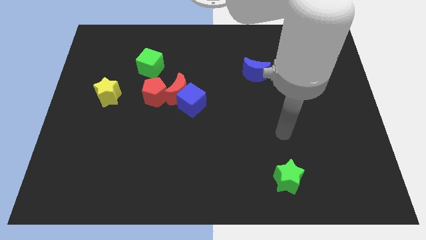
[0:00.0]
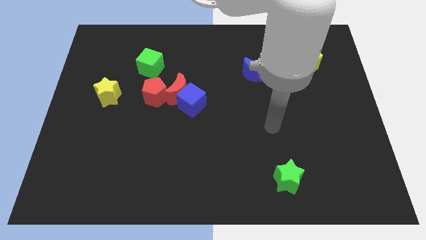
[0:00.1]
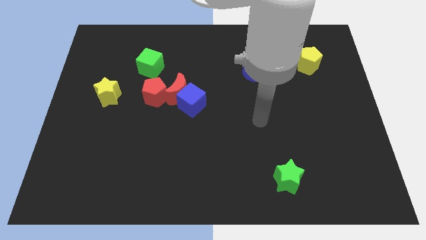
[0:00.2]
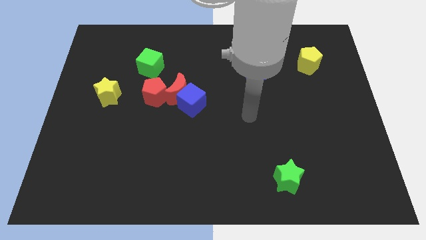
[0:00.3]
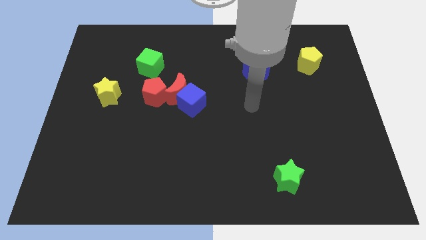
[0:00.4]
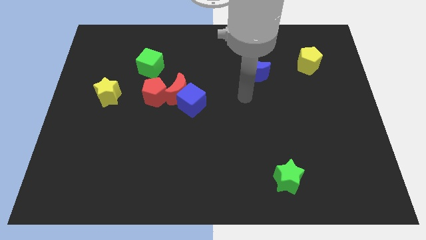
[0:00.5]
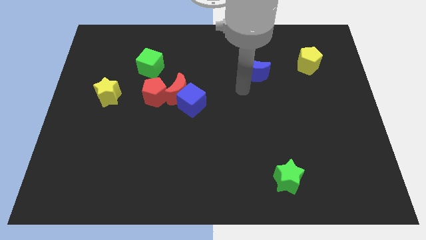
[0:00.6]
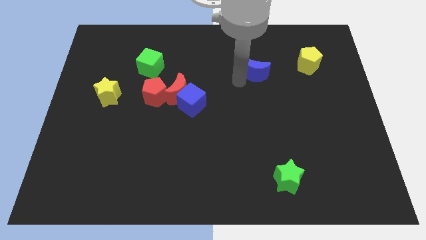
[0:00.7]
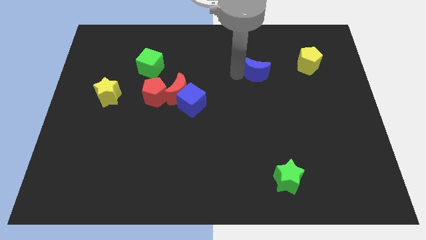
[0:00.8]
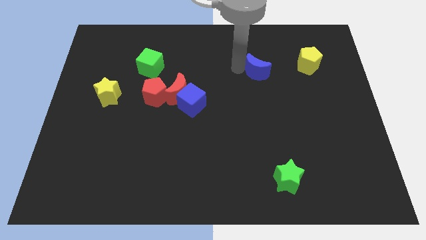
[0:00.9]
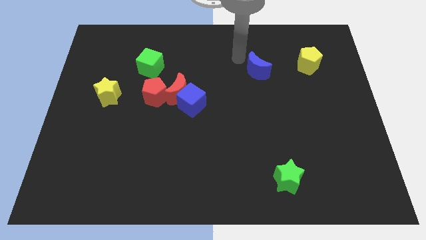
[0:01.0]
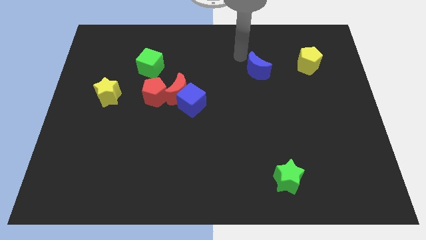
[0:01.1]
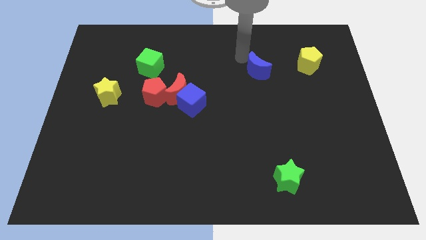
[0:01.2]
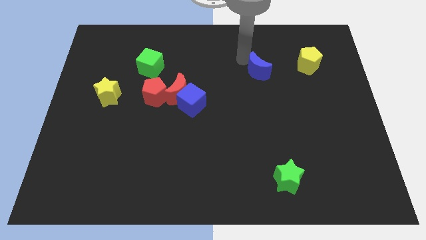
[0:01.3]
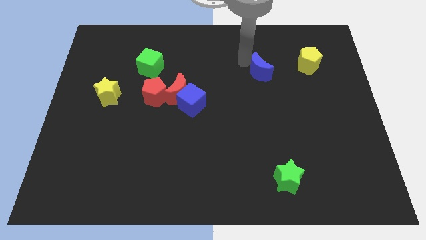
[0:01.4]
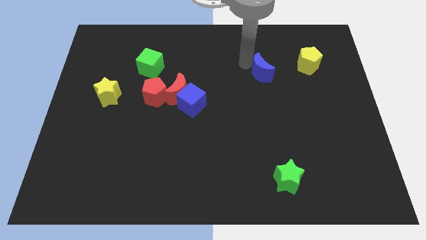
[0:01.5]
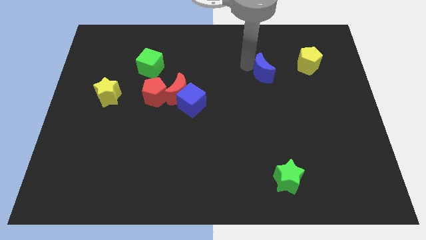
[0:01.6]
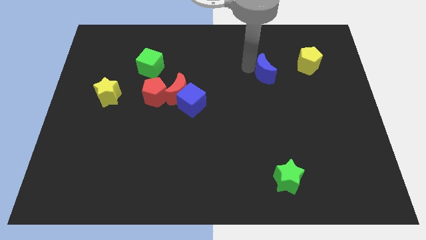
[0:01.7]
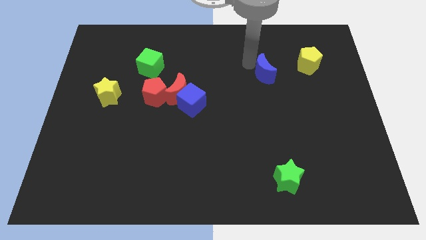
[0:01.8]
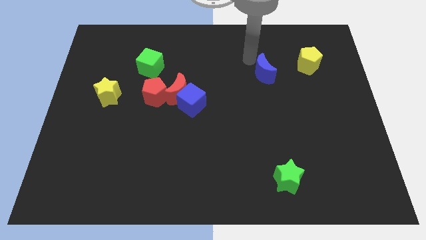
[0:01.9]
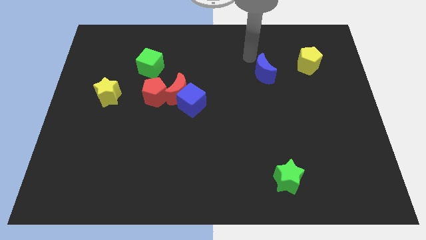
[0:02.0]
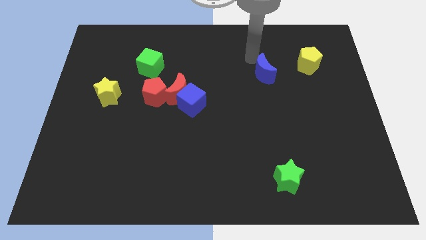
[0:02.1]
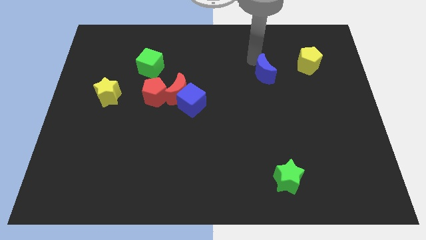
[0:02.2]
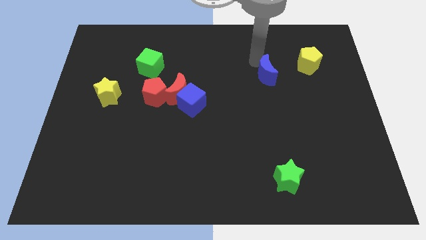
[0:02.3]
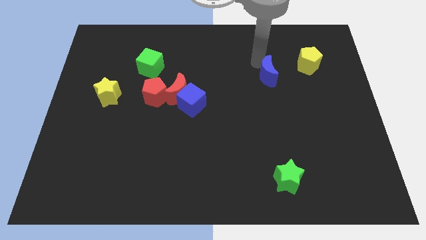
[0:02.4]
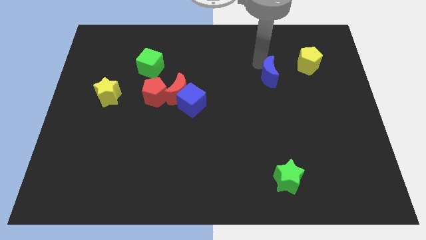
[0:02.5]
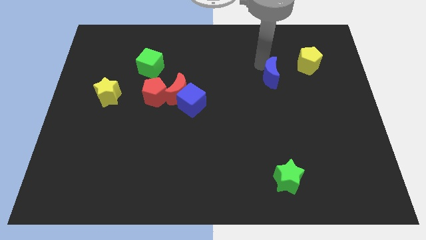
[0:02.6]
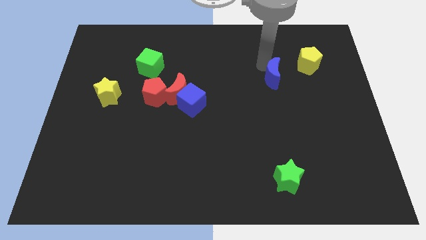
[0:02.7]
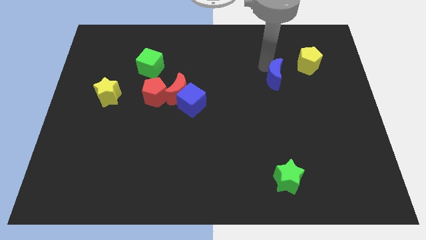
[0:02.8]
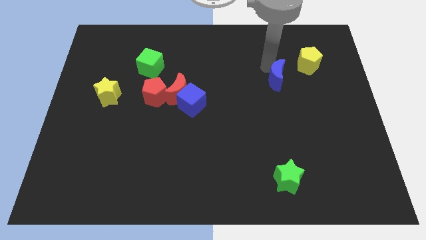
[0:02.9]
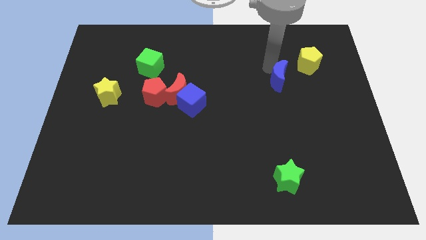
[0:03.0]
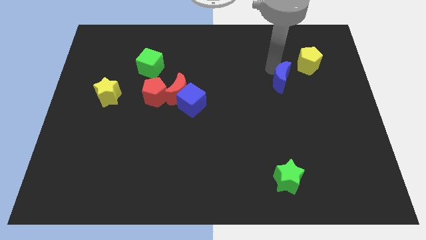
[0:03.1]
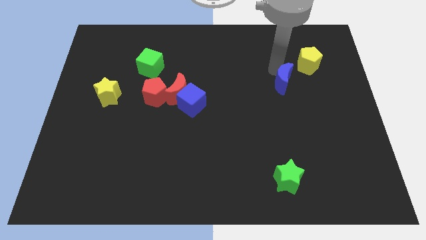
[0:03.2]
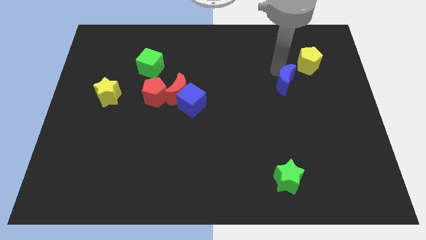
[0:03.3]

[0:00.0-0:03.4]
move the blue moon somewhat down and right diagonally

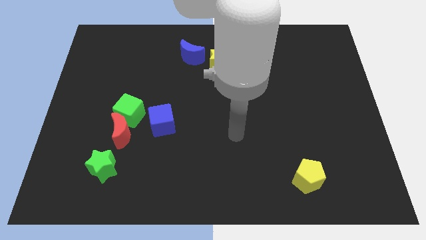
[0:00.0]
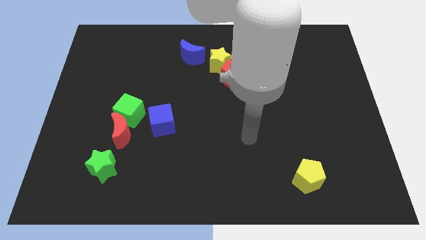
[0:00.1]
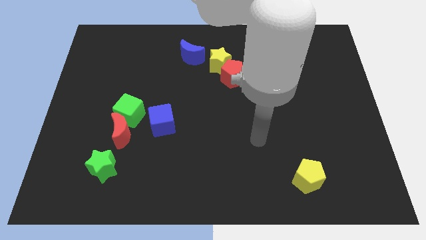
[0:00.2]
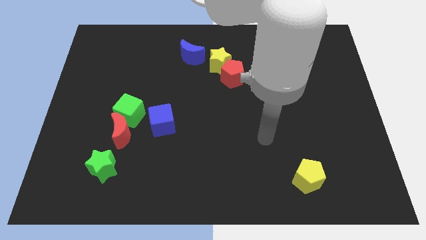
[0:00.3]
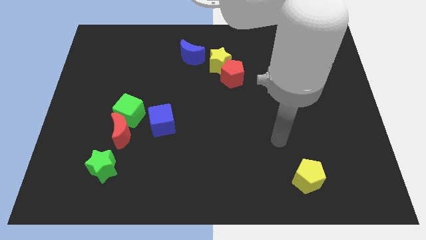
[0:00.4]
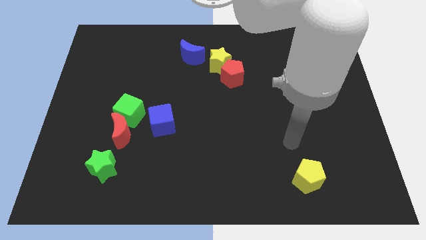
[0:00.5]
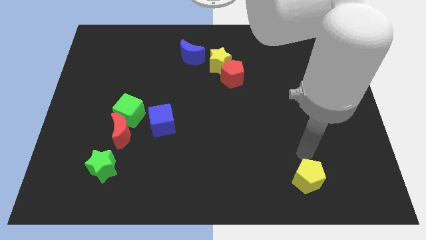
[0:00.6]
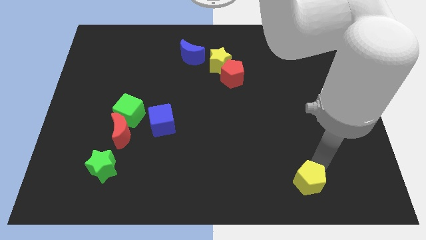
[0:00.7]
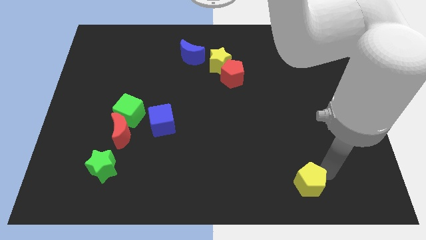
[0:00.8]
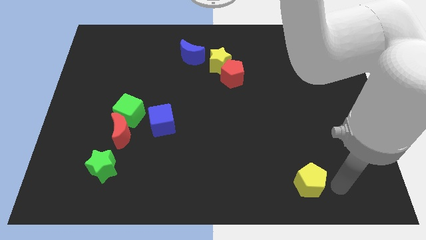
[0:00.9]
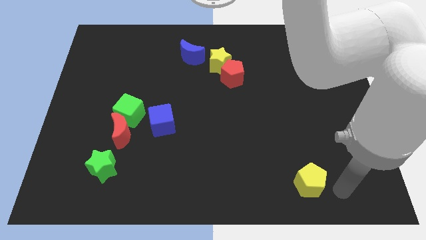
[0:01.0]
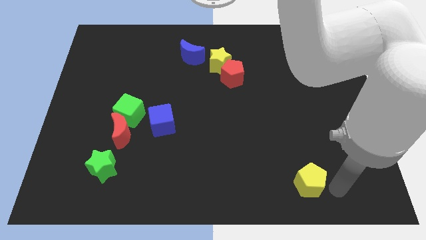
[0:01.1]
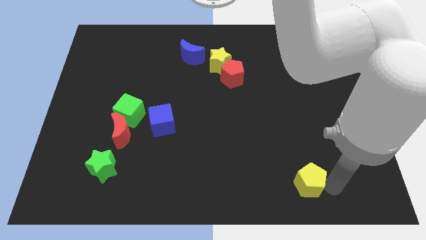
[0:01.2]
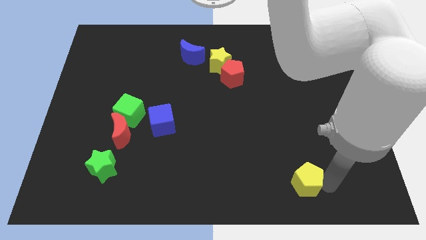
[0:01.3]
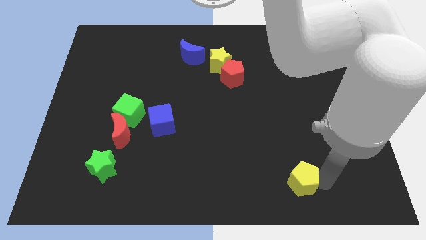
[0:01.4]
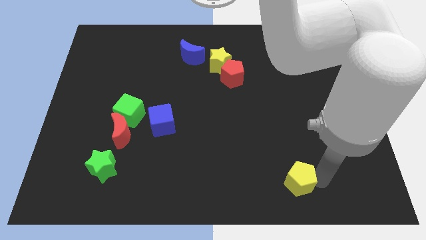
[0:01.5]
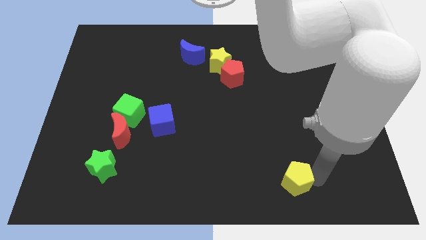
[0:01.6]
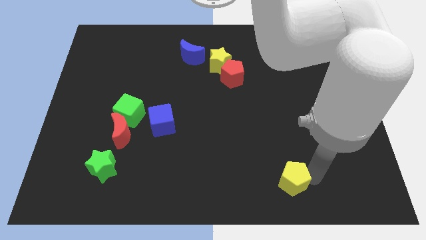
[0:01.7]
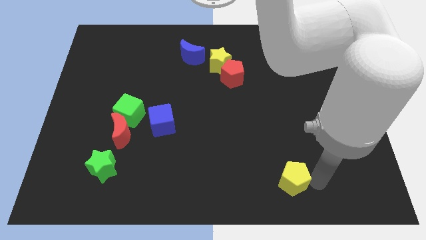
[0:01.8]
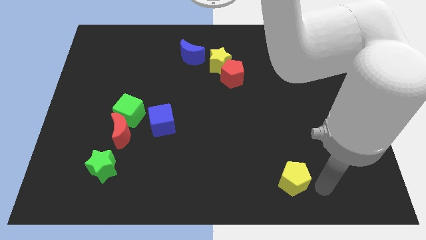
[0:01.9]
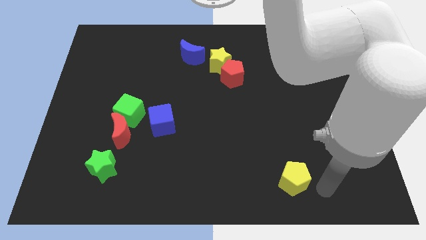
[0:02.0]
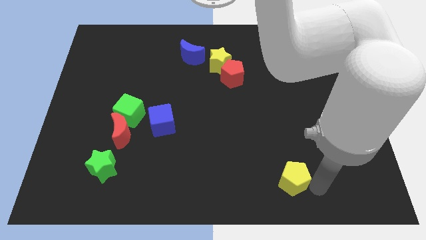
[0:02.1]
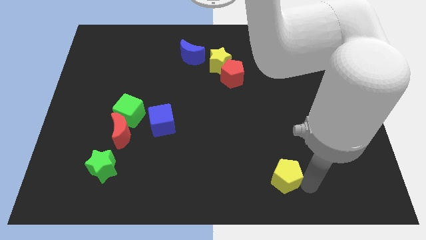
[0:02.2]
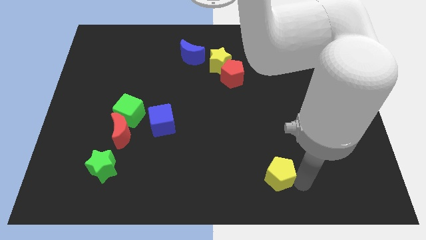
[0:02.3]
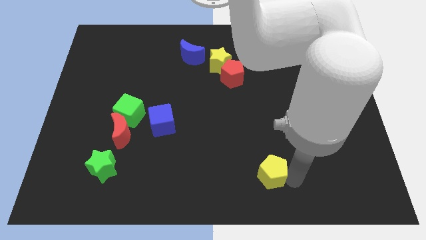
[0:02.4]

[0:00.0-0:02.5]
move the yellow pentagon a little left

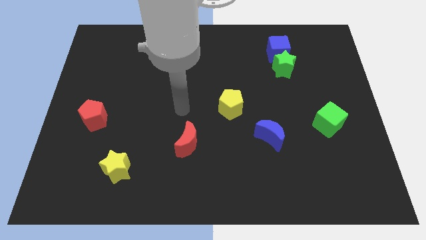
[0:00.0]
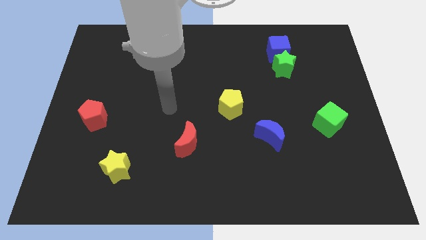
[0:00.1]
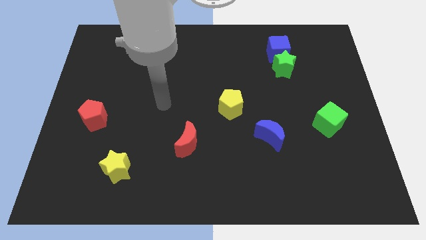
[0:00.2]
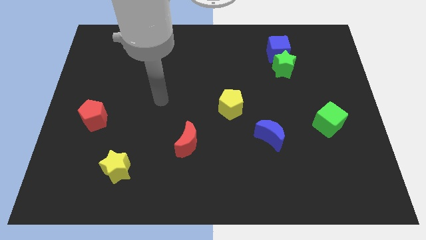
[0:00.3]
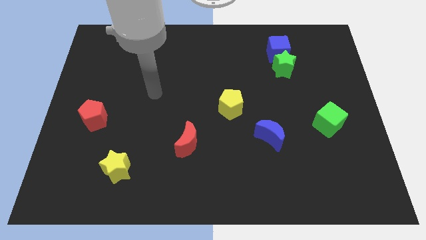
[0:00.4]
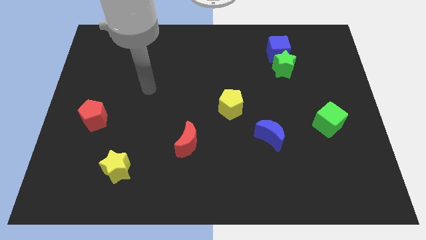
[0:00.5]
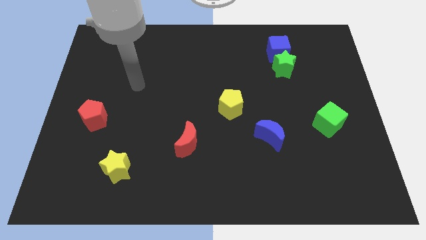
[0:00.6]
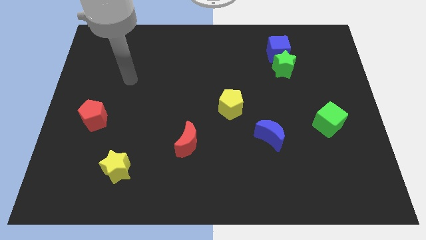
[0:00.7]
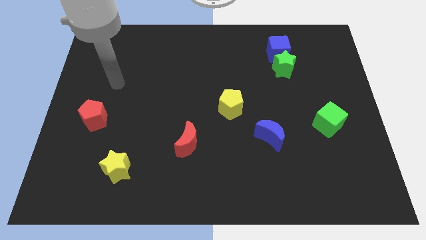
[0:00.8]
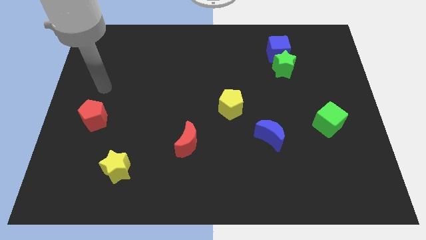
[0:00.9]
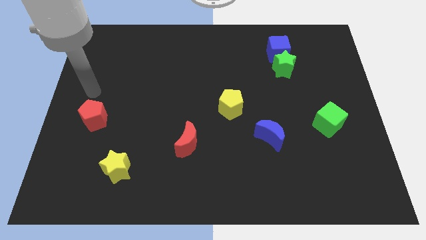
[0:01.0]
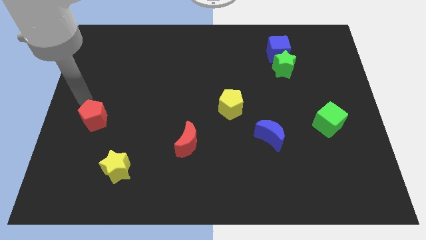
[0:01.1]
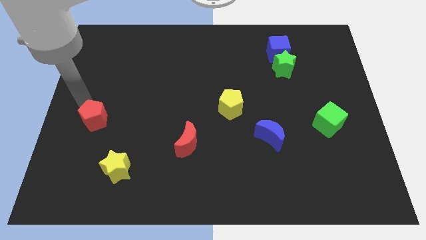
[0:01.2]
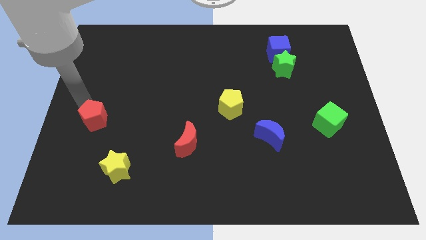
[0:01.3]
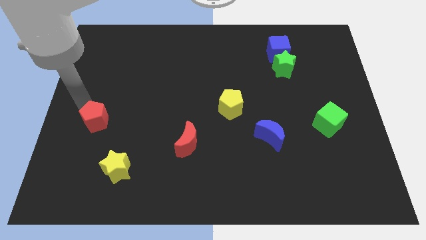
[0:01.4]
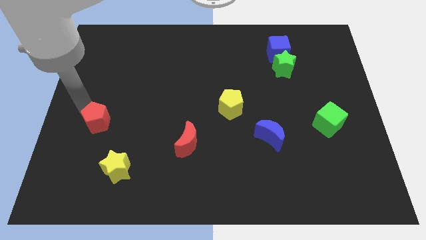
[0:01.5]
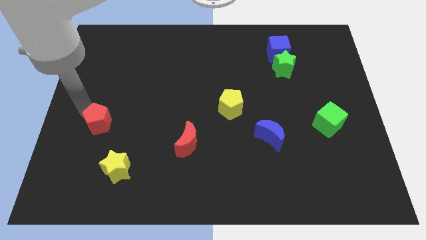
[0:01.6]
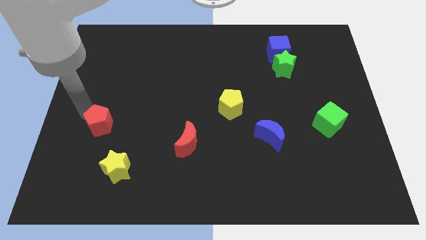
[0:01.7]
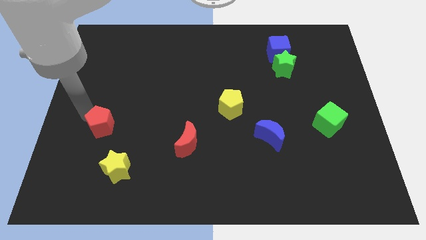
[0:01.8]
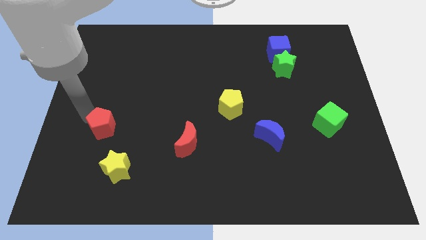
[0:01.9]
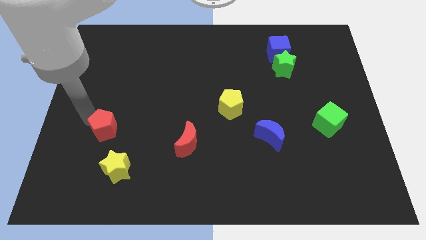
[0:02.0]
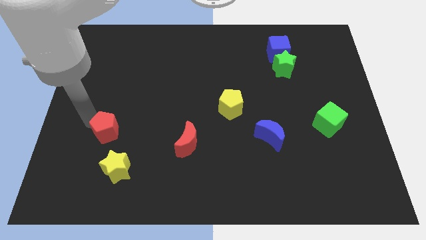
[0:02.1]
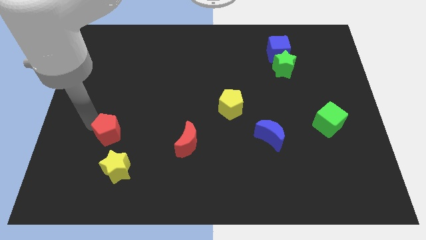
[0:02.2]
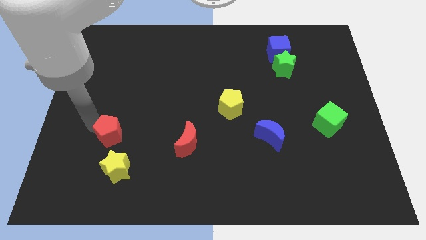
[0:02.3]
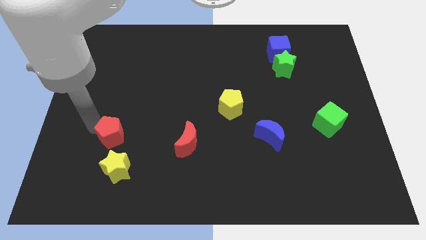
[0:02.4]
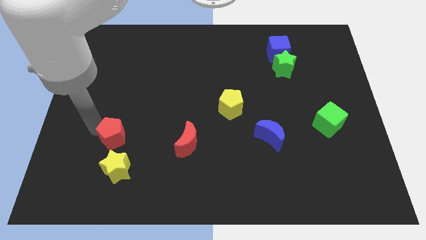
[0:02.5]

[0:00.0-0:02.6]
move the red pentagon a little bit diagonally downwards and to the right
